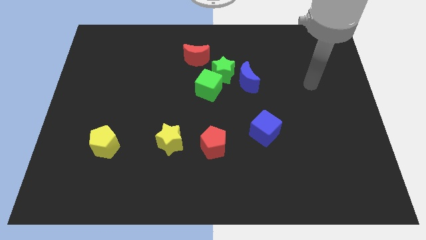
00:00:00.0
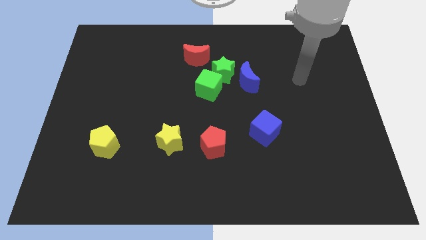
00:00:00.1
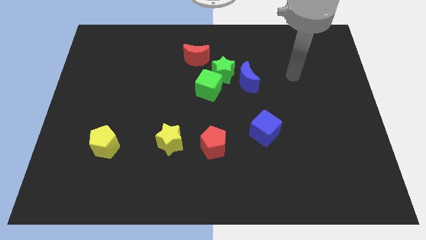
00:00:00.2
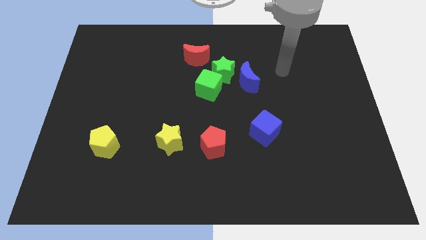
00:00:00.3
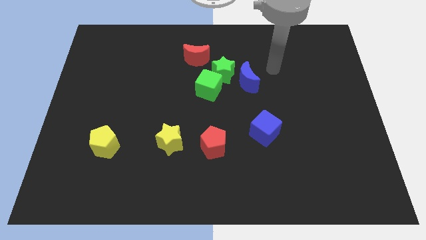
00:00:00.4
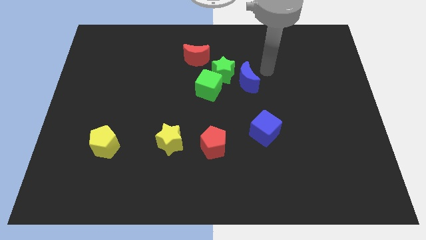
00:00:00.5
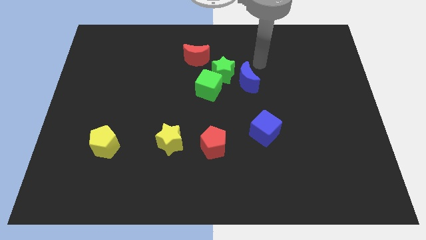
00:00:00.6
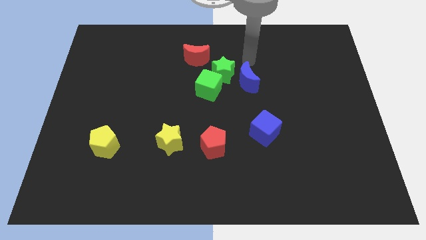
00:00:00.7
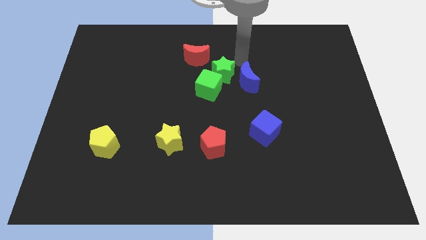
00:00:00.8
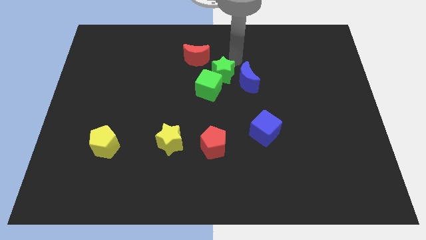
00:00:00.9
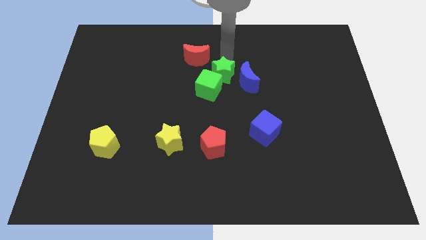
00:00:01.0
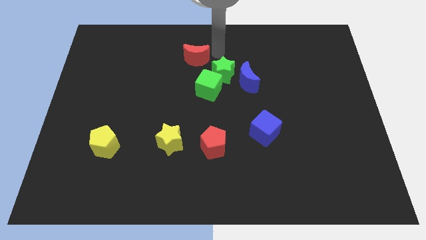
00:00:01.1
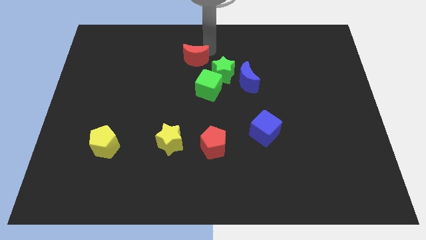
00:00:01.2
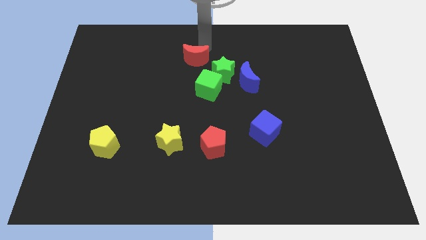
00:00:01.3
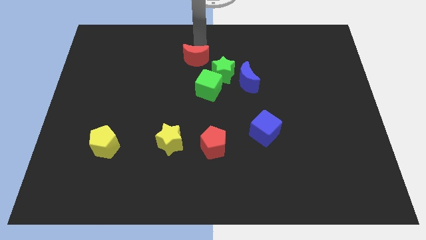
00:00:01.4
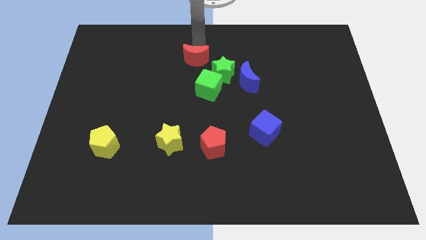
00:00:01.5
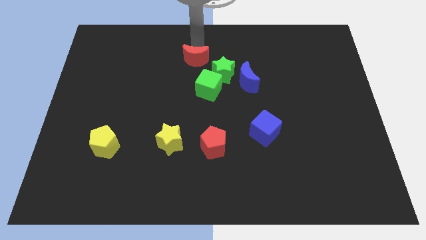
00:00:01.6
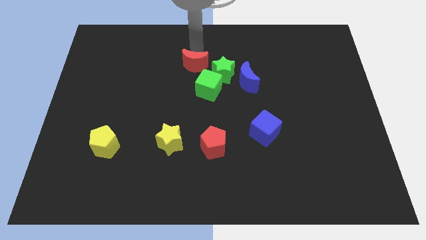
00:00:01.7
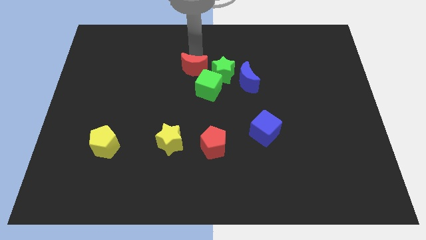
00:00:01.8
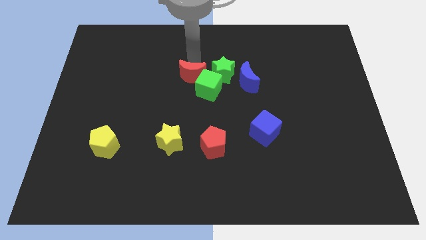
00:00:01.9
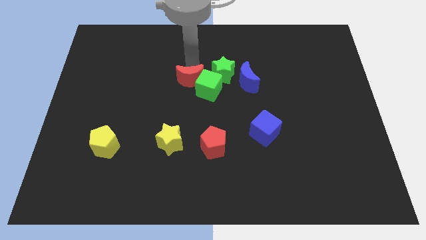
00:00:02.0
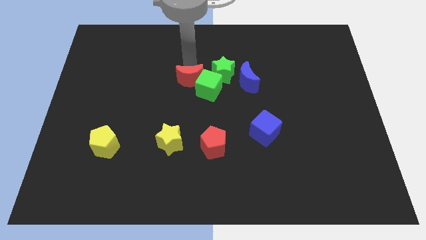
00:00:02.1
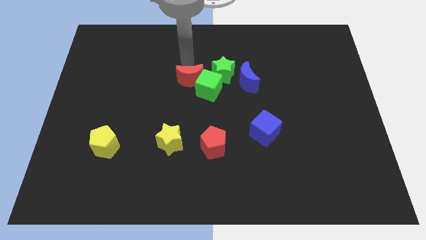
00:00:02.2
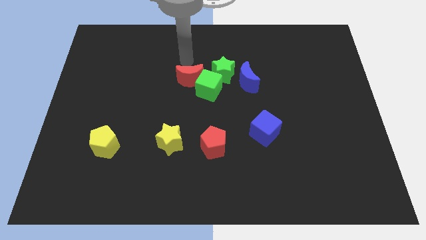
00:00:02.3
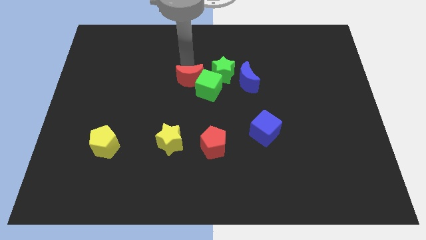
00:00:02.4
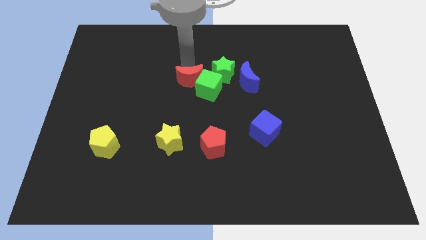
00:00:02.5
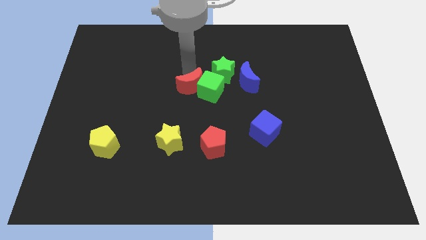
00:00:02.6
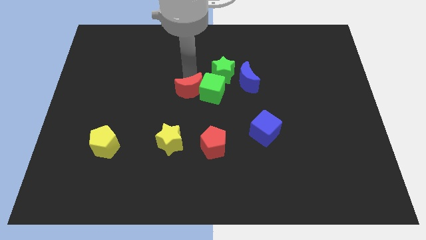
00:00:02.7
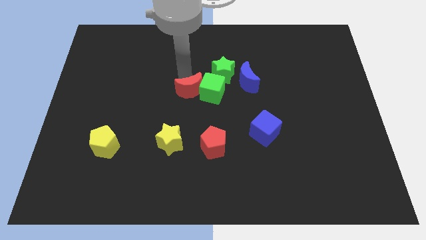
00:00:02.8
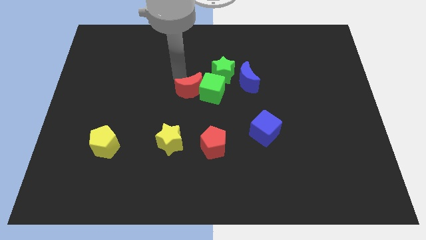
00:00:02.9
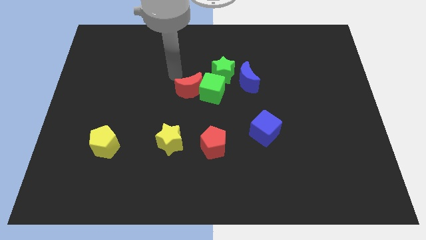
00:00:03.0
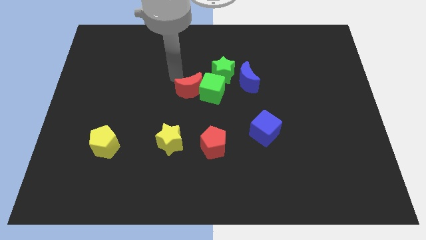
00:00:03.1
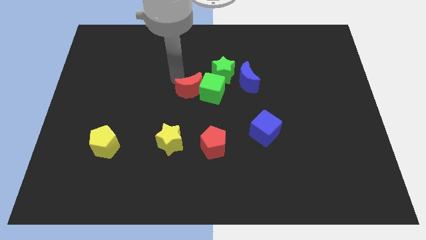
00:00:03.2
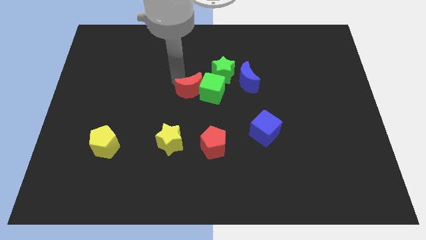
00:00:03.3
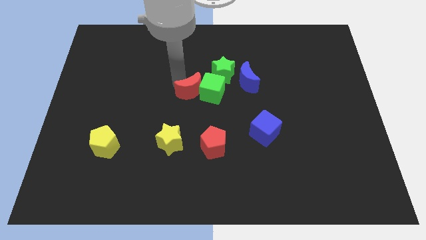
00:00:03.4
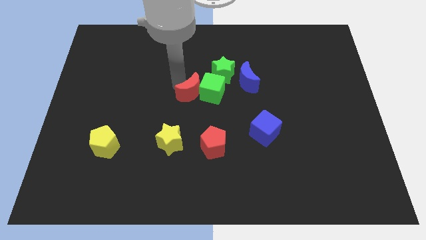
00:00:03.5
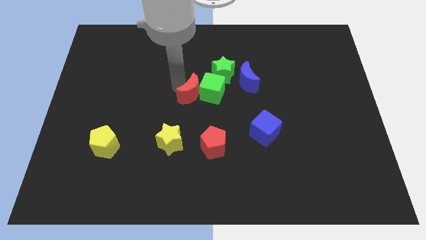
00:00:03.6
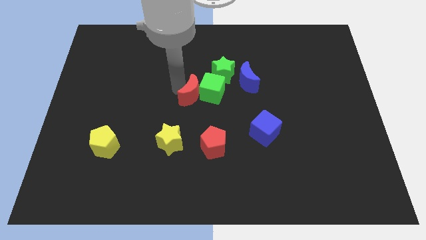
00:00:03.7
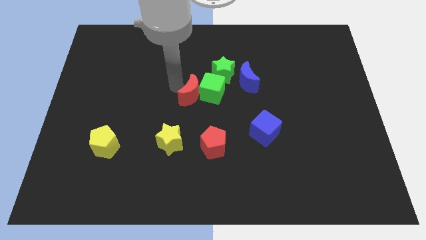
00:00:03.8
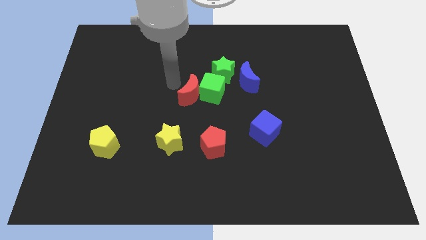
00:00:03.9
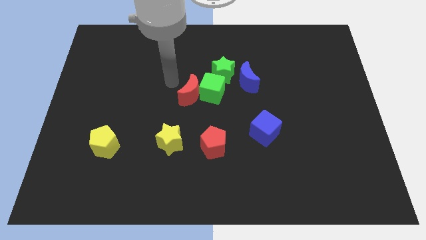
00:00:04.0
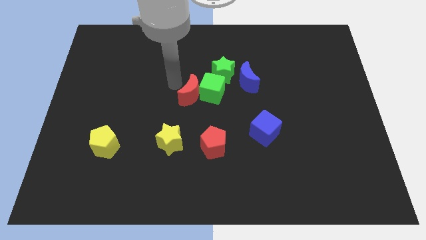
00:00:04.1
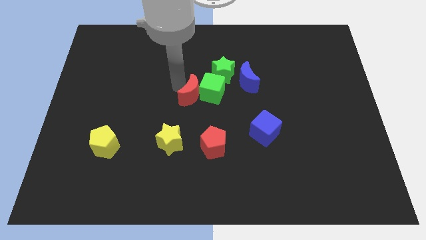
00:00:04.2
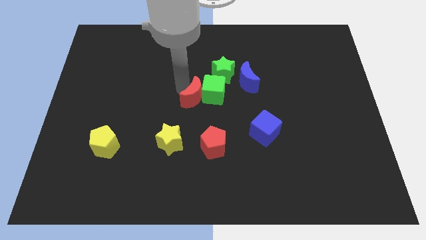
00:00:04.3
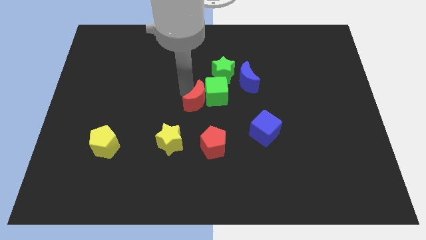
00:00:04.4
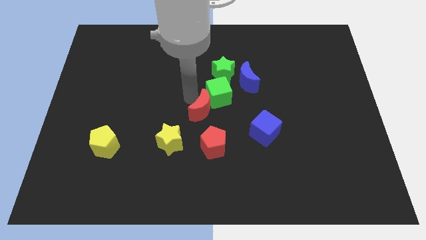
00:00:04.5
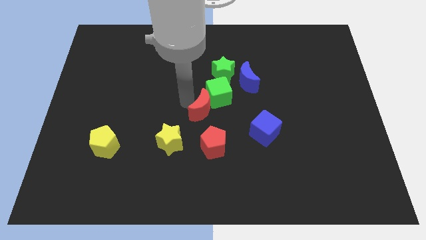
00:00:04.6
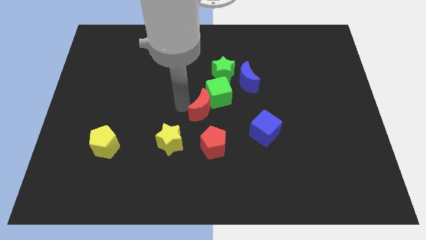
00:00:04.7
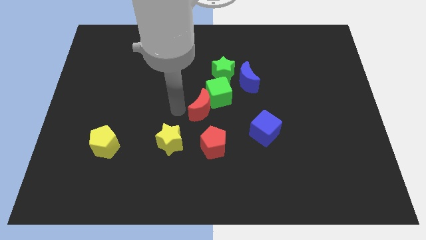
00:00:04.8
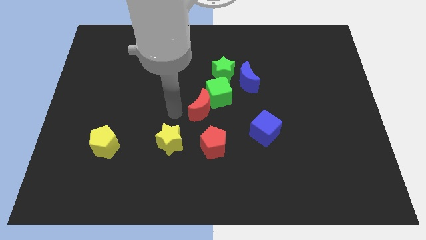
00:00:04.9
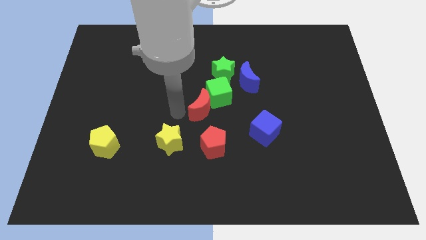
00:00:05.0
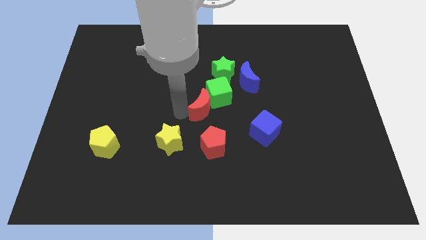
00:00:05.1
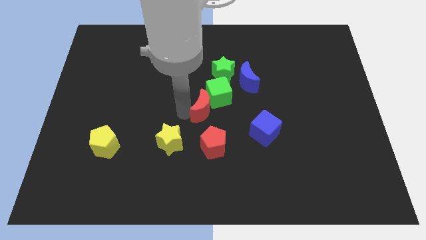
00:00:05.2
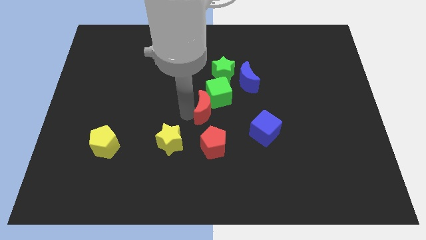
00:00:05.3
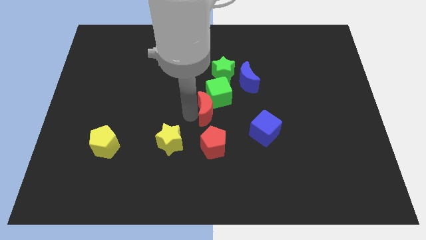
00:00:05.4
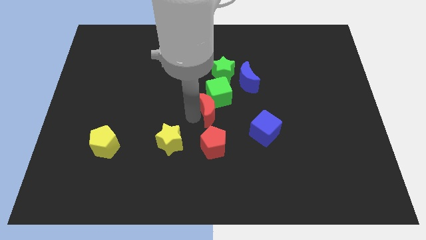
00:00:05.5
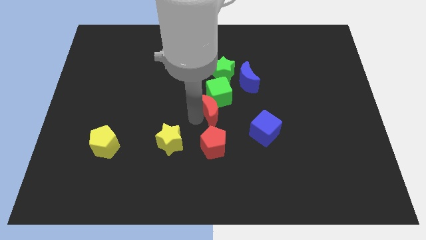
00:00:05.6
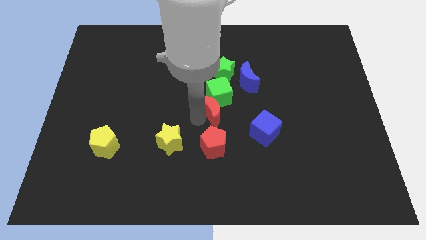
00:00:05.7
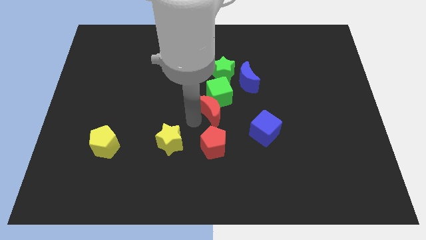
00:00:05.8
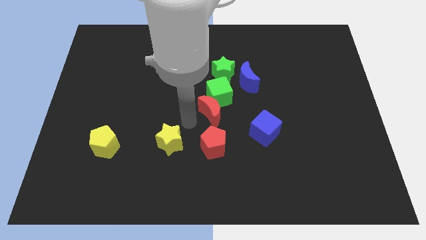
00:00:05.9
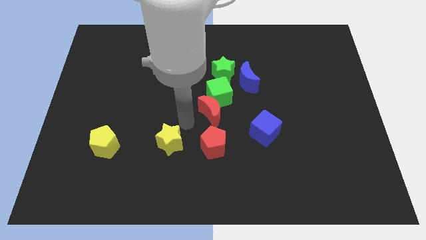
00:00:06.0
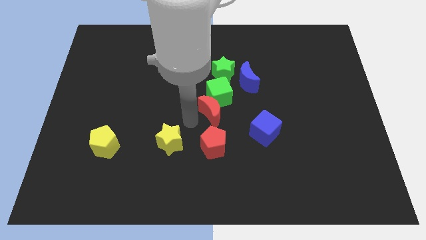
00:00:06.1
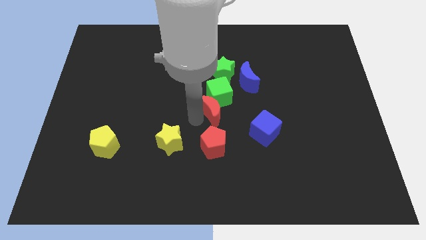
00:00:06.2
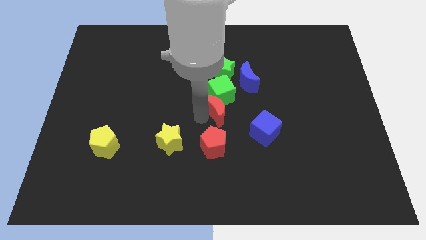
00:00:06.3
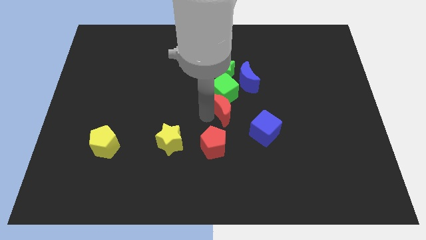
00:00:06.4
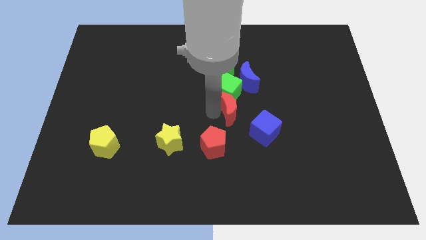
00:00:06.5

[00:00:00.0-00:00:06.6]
push the red moon below the blue moon
